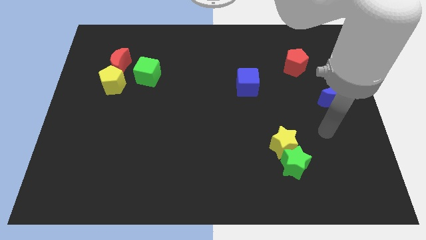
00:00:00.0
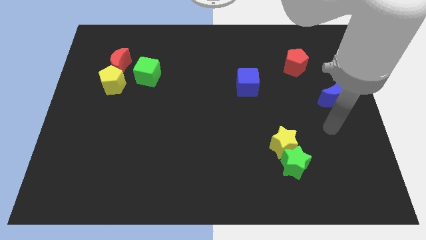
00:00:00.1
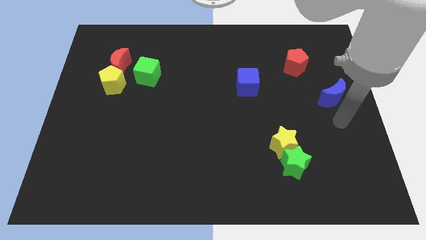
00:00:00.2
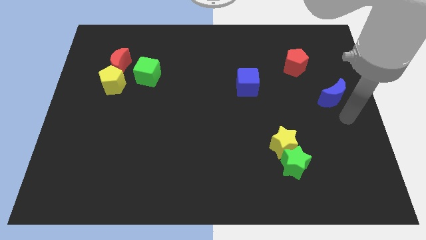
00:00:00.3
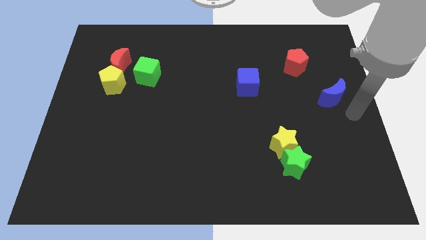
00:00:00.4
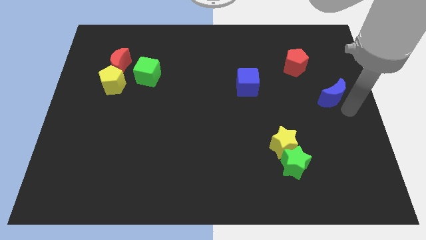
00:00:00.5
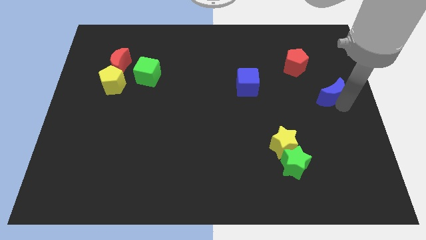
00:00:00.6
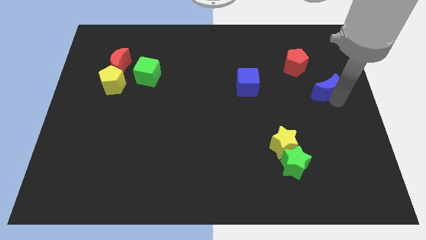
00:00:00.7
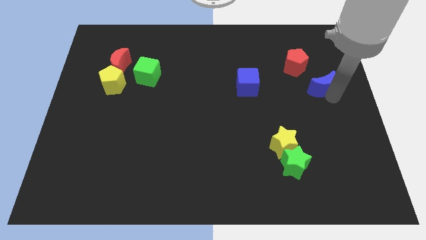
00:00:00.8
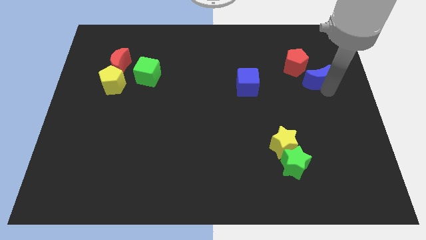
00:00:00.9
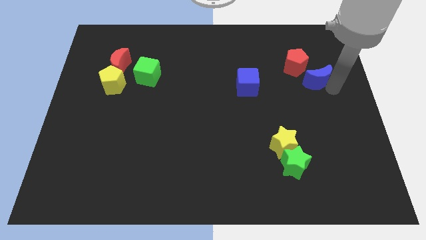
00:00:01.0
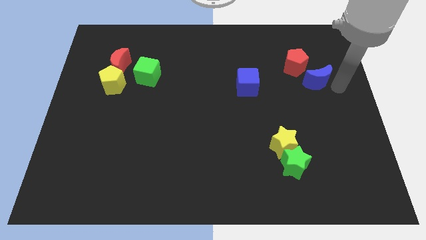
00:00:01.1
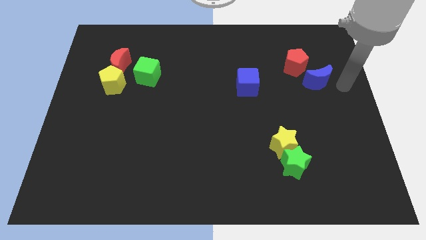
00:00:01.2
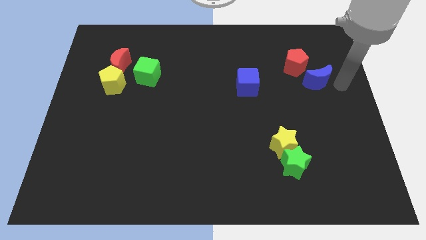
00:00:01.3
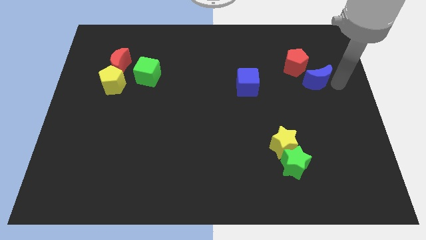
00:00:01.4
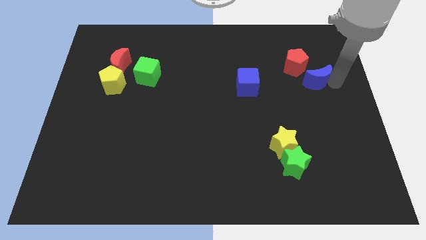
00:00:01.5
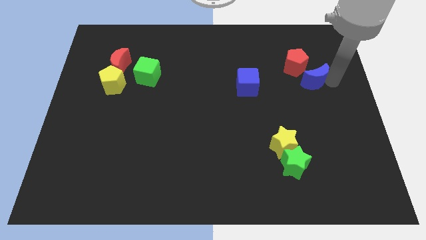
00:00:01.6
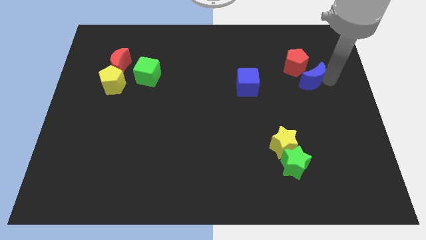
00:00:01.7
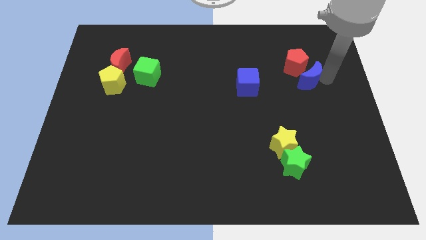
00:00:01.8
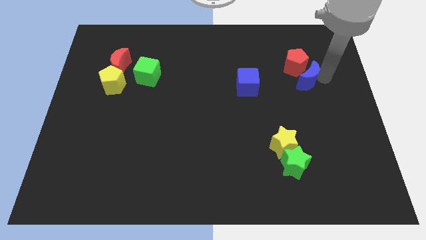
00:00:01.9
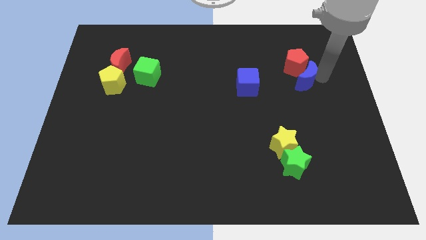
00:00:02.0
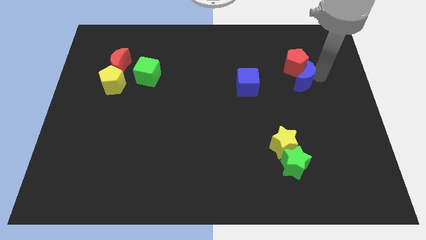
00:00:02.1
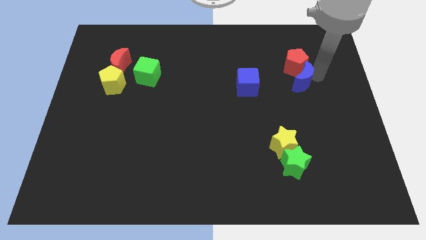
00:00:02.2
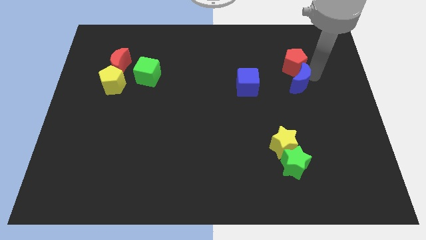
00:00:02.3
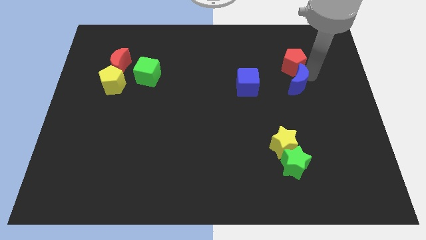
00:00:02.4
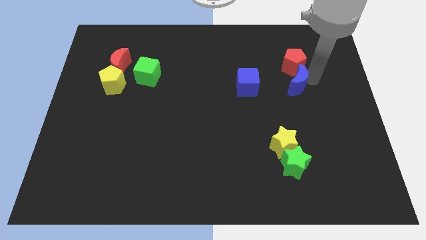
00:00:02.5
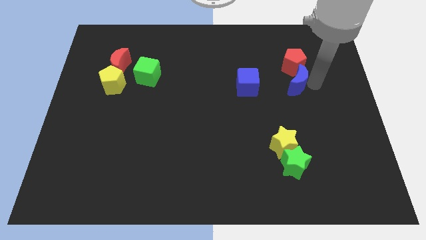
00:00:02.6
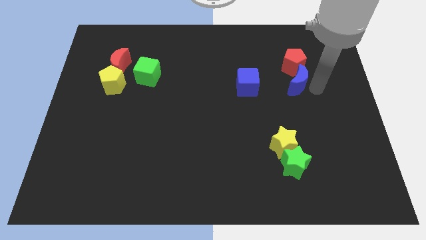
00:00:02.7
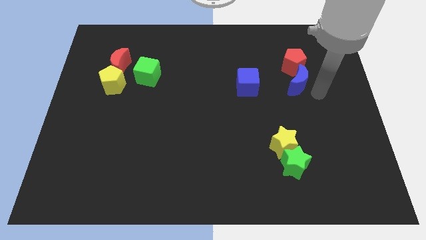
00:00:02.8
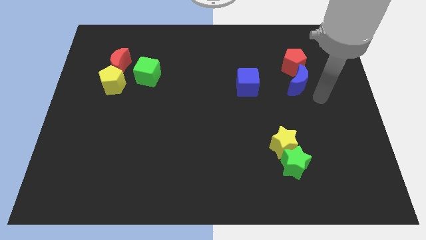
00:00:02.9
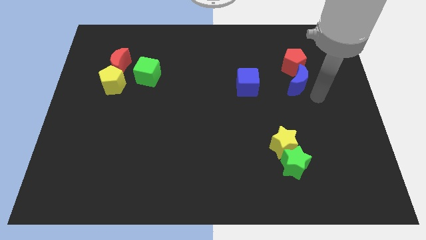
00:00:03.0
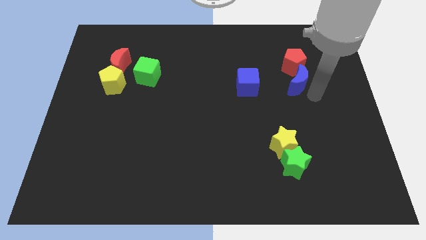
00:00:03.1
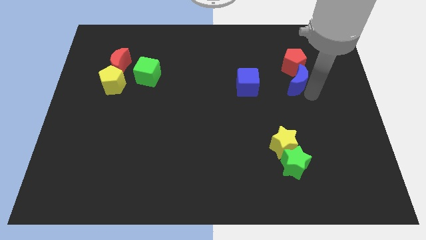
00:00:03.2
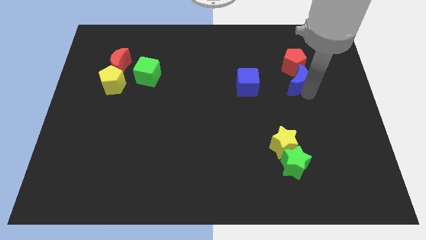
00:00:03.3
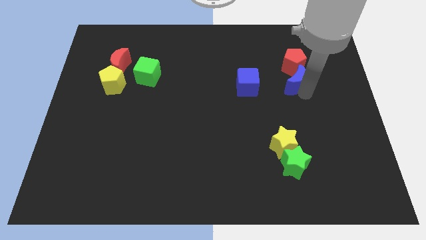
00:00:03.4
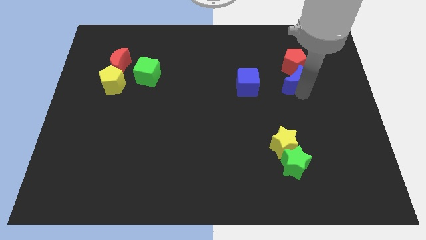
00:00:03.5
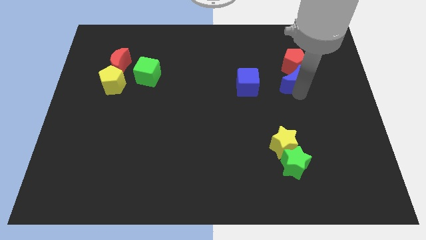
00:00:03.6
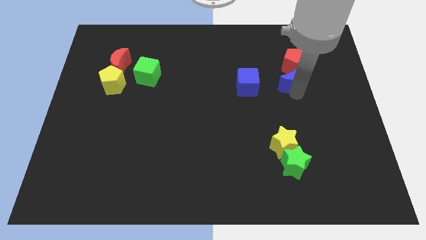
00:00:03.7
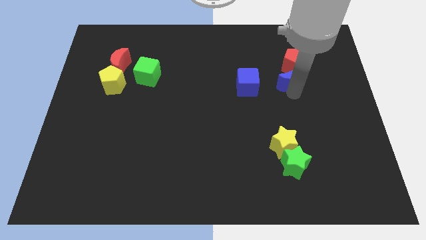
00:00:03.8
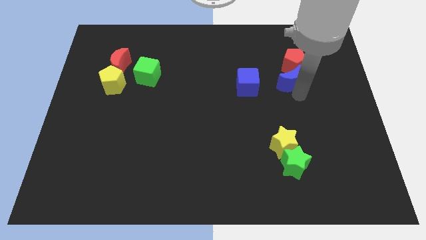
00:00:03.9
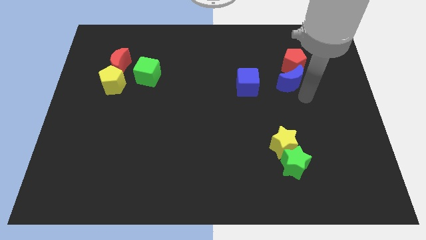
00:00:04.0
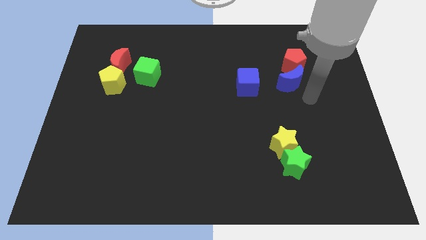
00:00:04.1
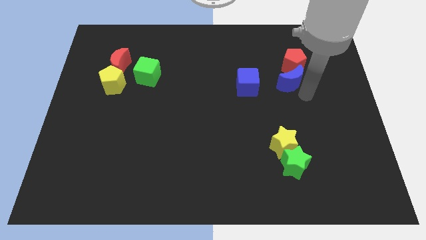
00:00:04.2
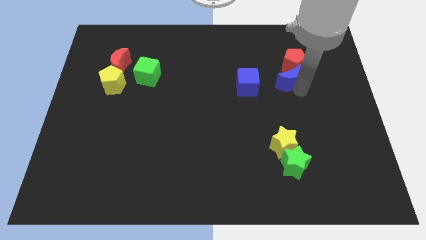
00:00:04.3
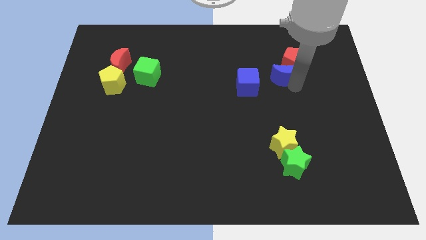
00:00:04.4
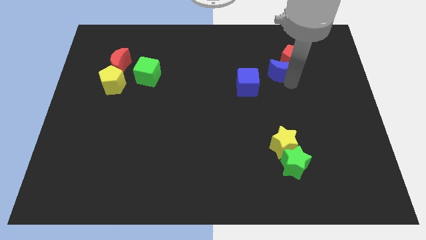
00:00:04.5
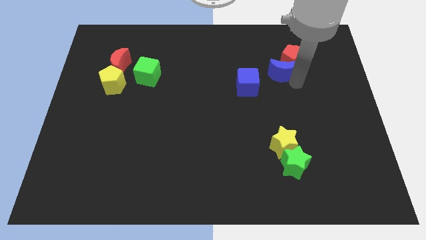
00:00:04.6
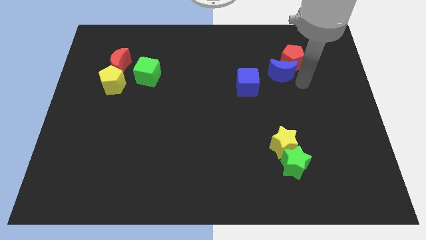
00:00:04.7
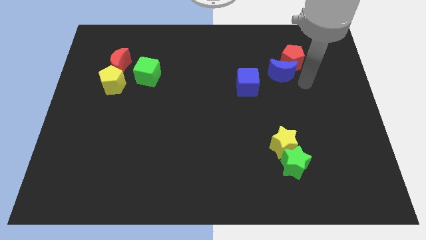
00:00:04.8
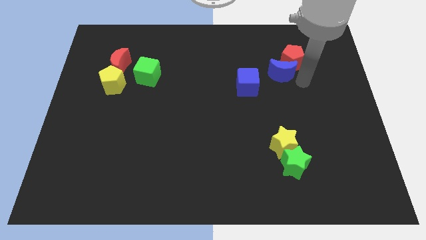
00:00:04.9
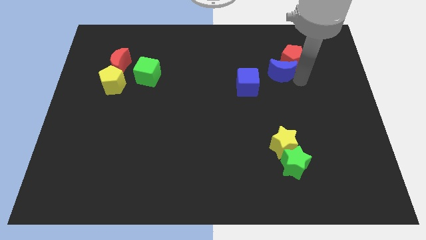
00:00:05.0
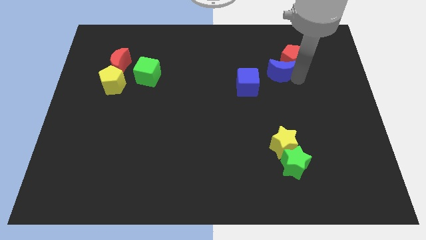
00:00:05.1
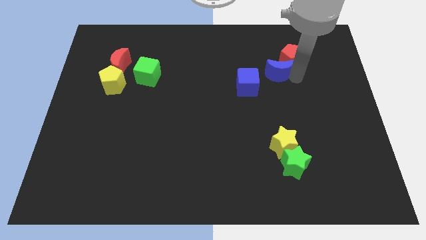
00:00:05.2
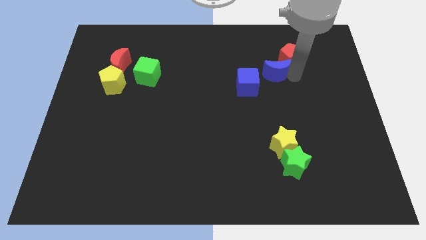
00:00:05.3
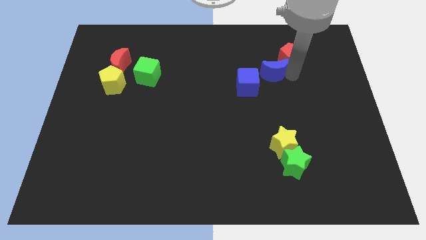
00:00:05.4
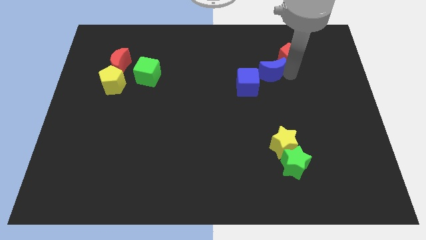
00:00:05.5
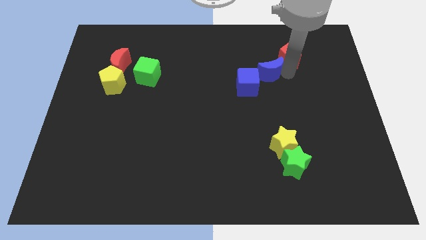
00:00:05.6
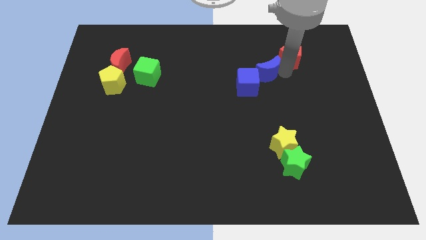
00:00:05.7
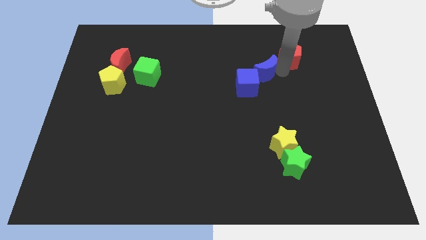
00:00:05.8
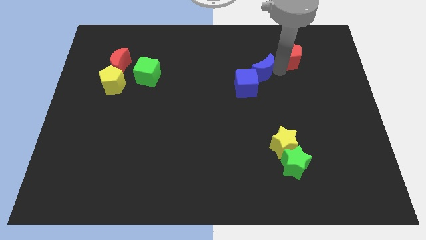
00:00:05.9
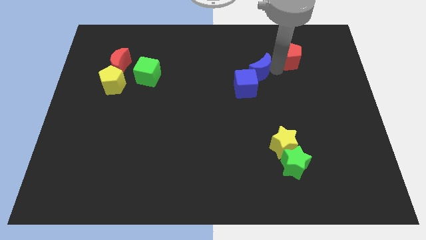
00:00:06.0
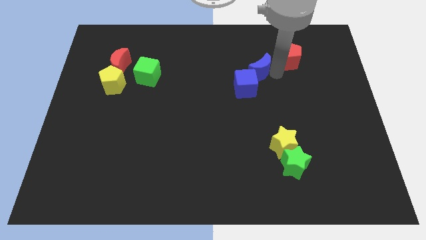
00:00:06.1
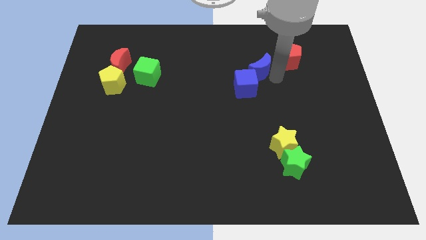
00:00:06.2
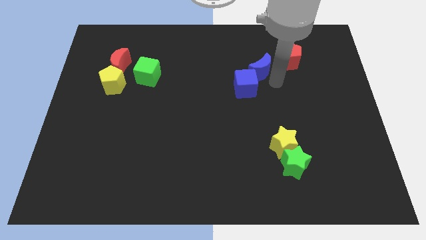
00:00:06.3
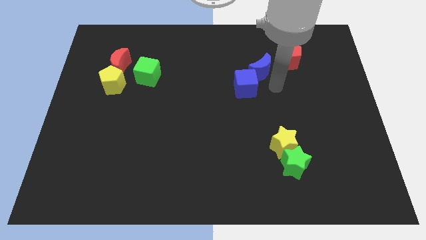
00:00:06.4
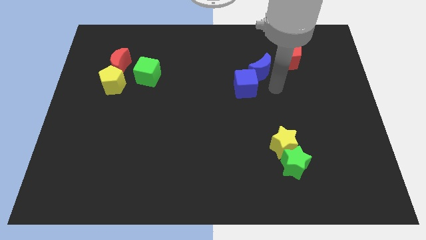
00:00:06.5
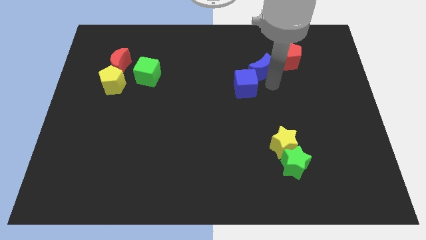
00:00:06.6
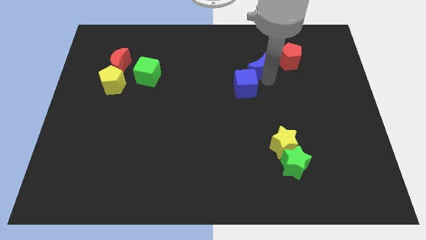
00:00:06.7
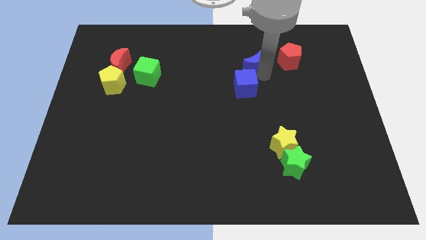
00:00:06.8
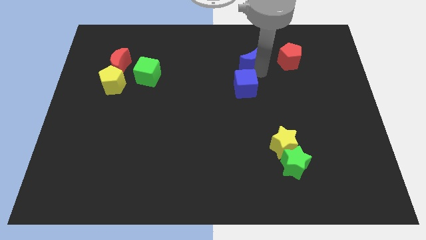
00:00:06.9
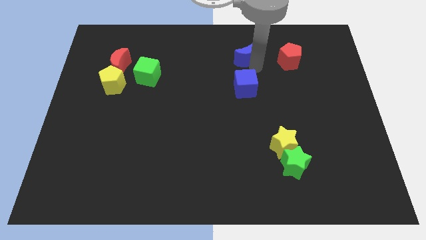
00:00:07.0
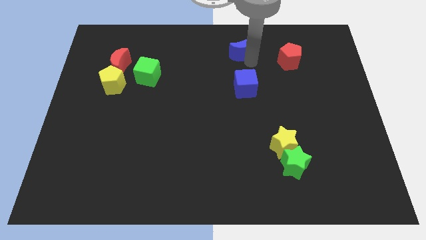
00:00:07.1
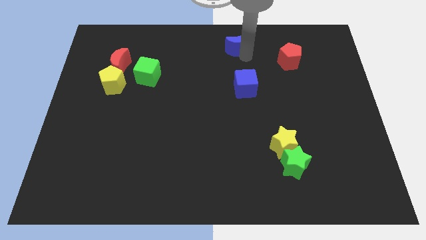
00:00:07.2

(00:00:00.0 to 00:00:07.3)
slide the blue moon to the top

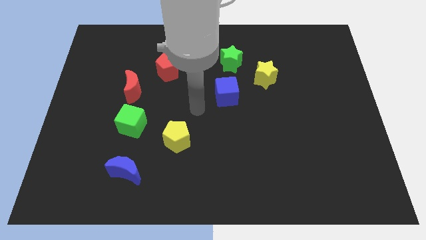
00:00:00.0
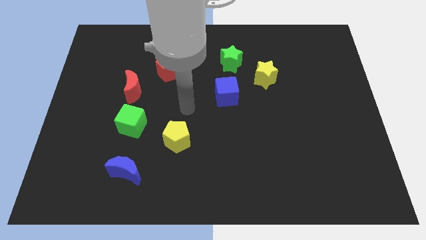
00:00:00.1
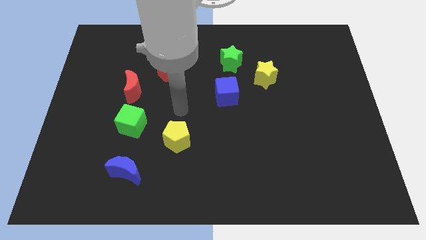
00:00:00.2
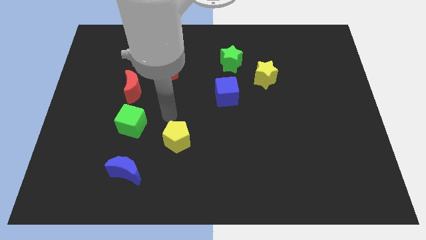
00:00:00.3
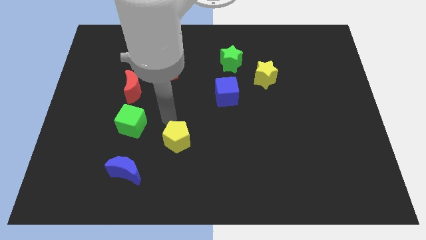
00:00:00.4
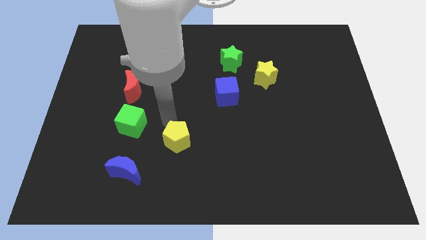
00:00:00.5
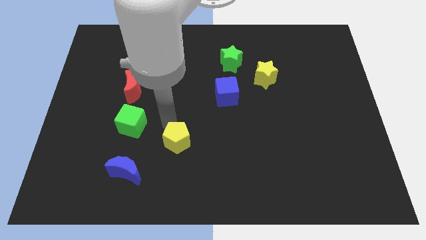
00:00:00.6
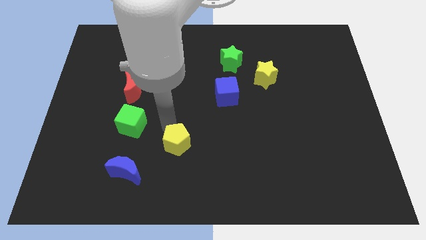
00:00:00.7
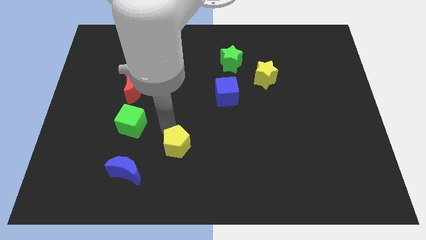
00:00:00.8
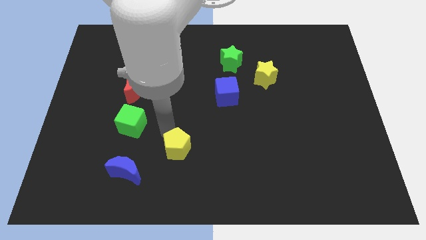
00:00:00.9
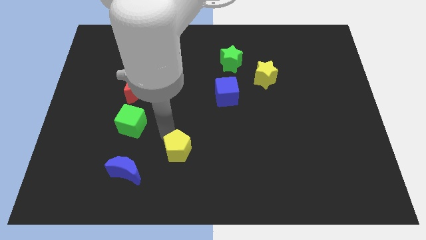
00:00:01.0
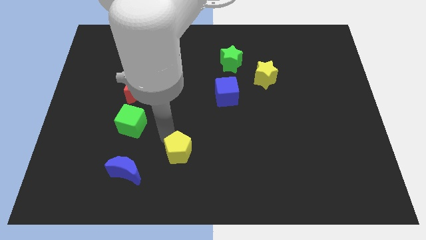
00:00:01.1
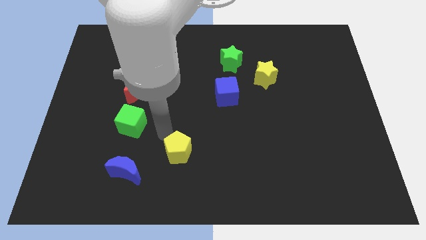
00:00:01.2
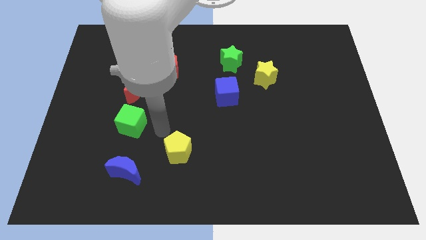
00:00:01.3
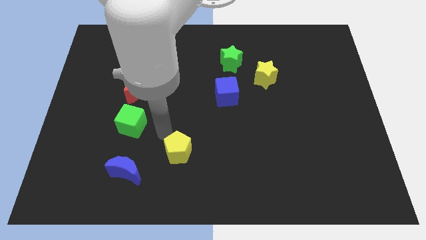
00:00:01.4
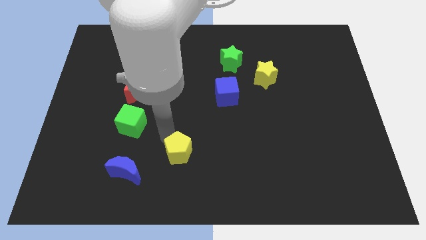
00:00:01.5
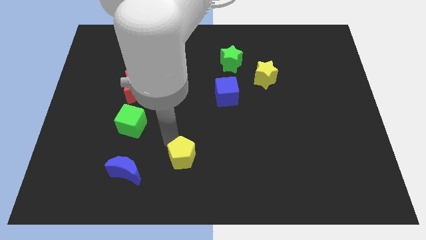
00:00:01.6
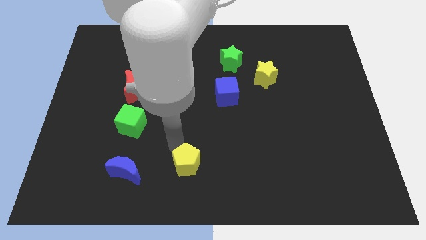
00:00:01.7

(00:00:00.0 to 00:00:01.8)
slide the yellow pentagon to the bottom side
